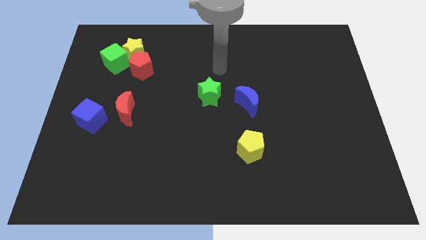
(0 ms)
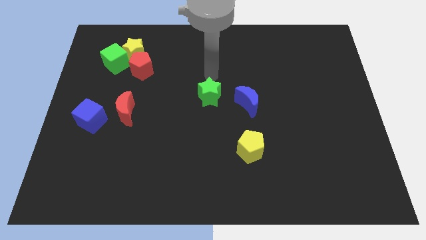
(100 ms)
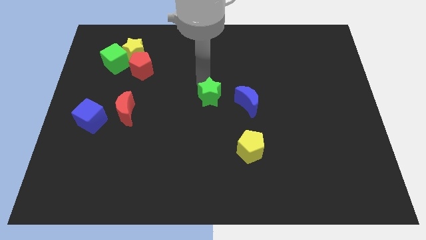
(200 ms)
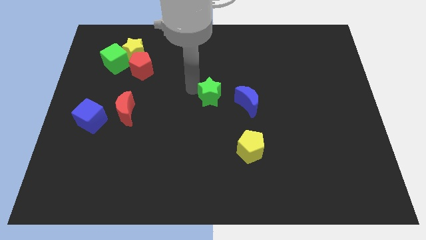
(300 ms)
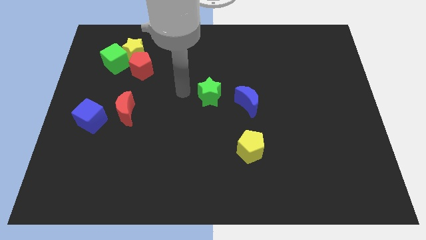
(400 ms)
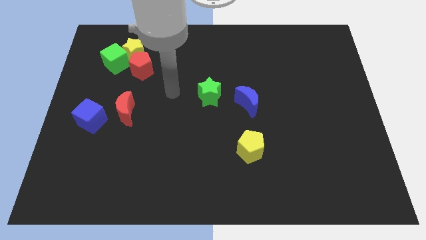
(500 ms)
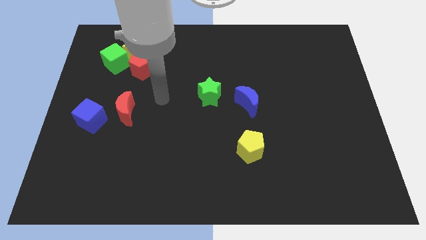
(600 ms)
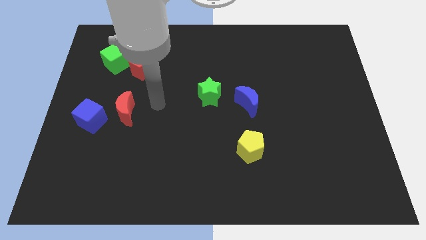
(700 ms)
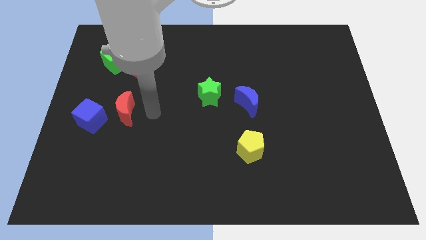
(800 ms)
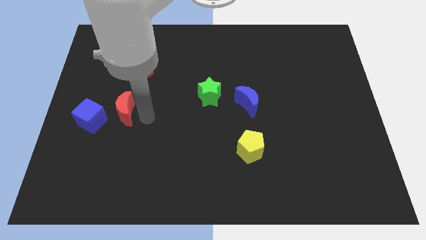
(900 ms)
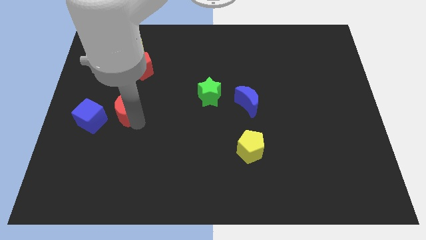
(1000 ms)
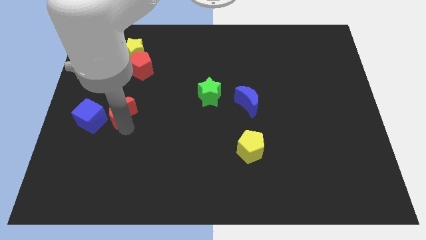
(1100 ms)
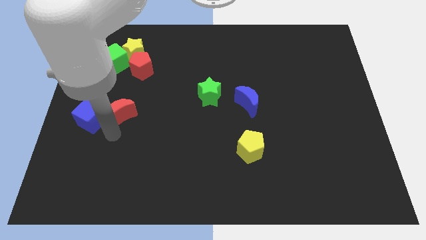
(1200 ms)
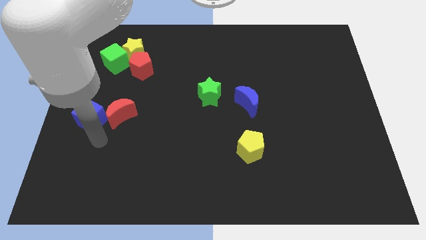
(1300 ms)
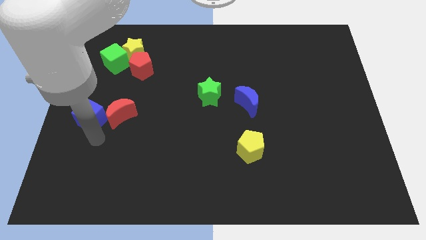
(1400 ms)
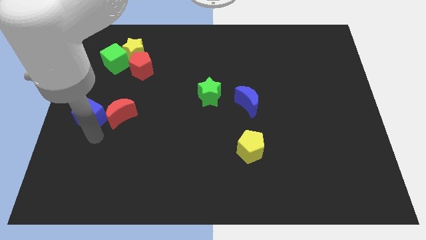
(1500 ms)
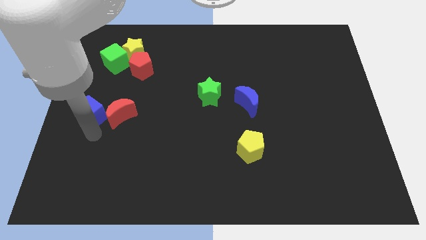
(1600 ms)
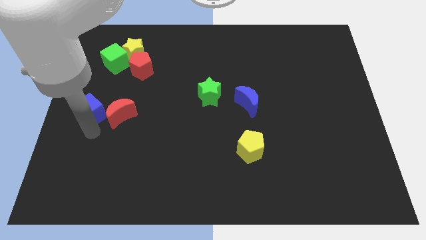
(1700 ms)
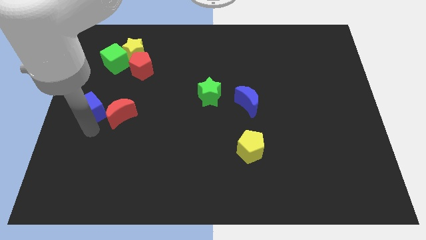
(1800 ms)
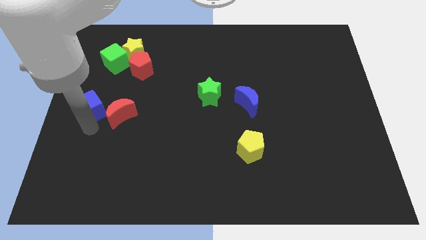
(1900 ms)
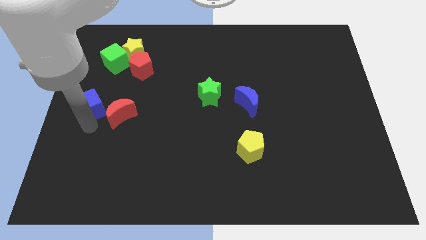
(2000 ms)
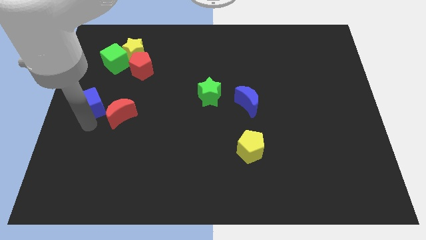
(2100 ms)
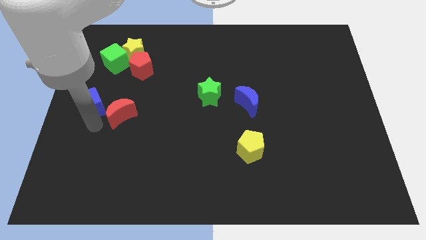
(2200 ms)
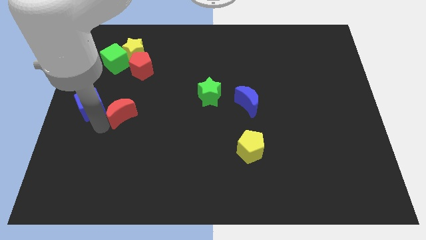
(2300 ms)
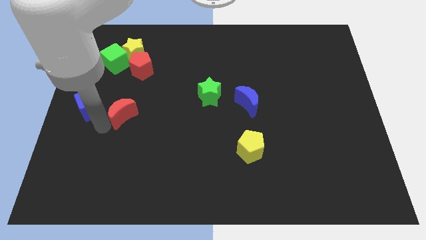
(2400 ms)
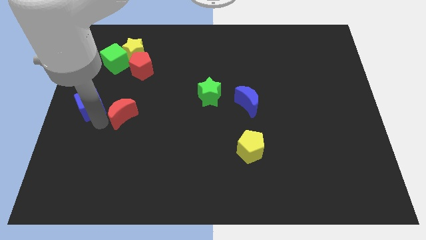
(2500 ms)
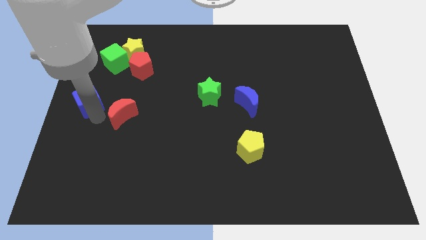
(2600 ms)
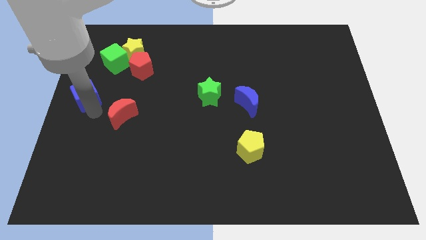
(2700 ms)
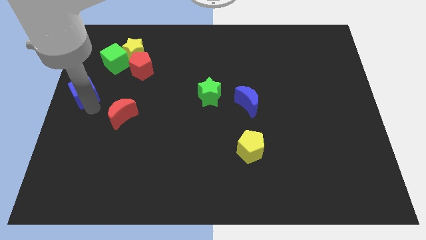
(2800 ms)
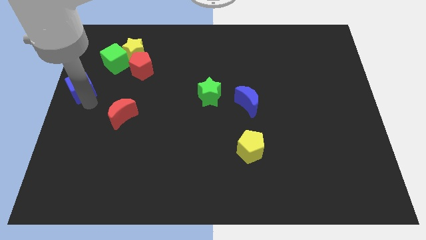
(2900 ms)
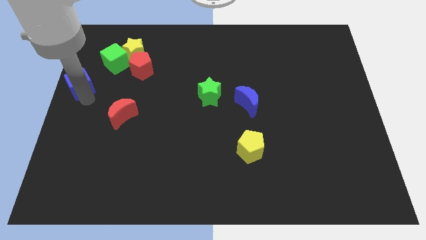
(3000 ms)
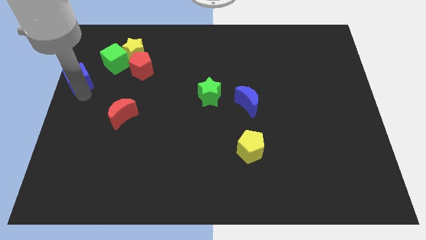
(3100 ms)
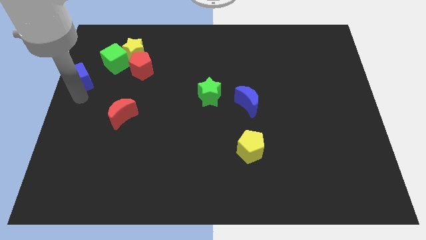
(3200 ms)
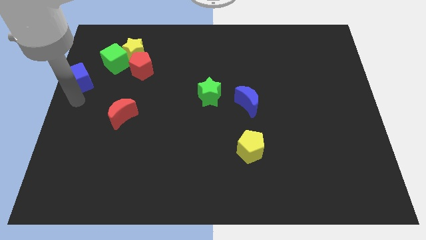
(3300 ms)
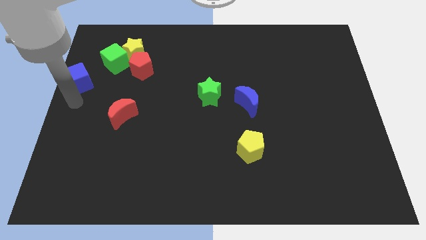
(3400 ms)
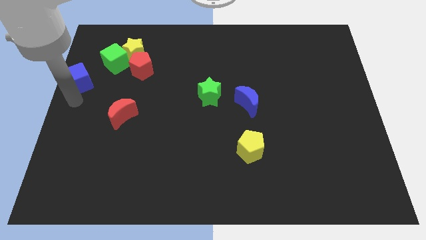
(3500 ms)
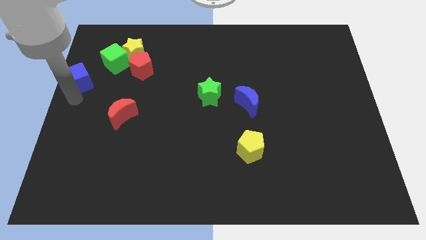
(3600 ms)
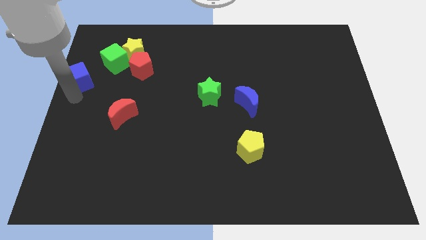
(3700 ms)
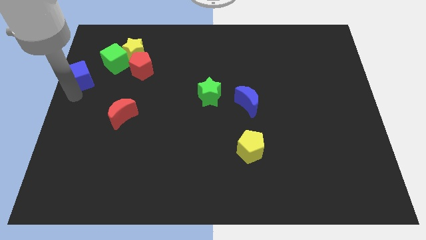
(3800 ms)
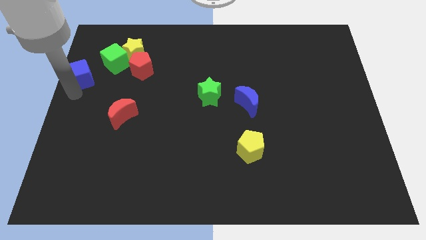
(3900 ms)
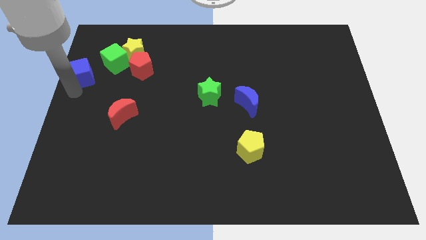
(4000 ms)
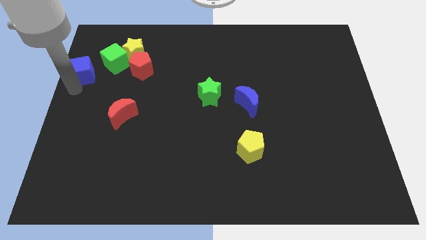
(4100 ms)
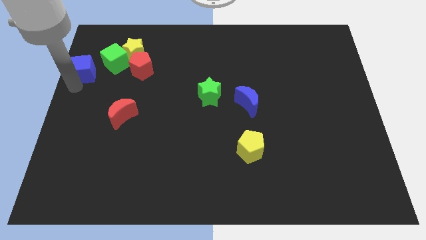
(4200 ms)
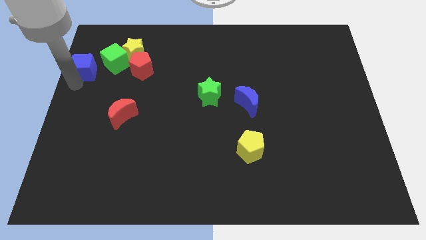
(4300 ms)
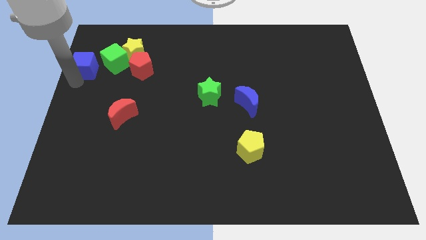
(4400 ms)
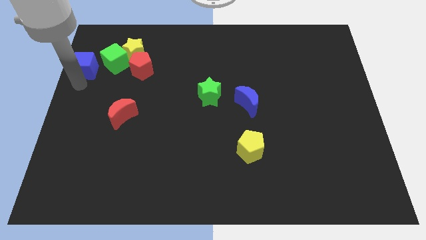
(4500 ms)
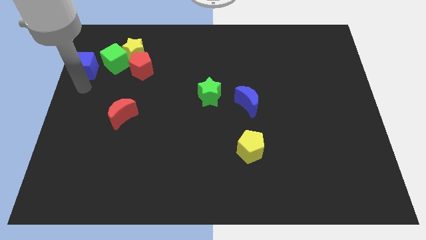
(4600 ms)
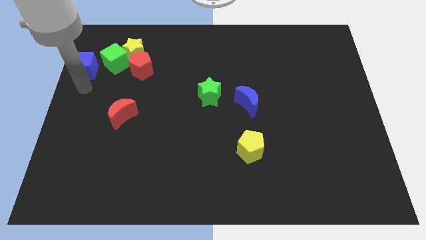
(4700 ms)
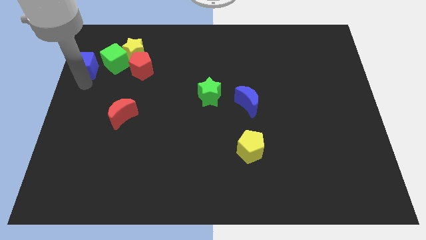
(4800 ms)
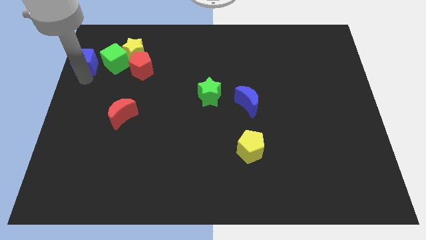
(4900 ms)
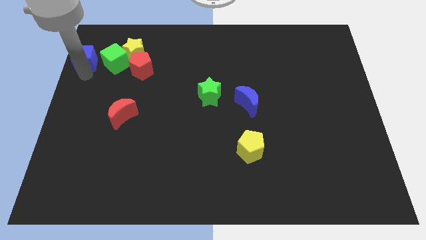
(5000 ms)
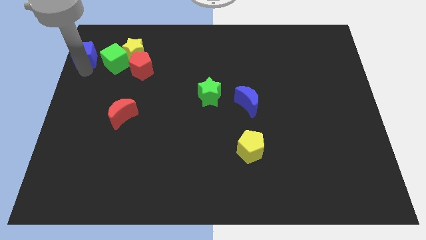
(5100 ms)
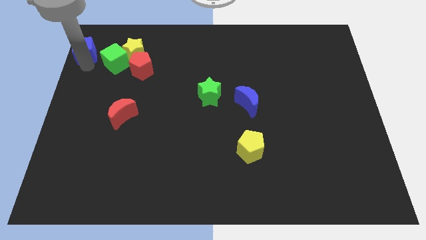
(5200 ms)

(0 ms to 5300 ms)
put the blue cube to the top left of the board
